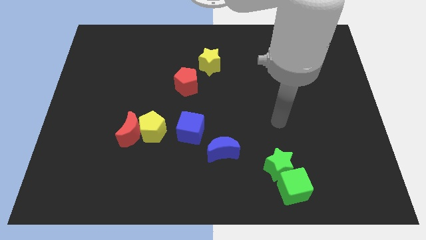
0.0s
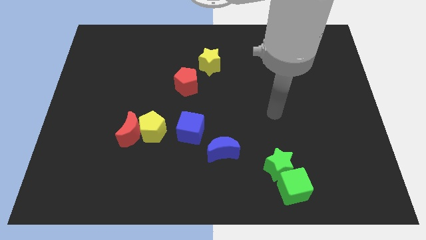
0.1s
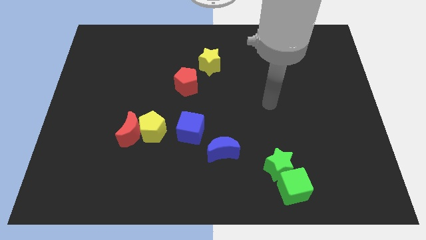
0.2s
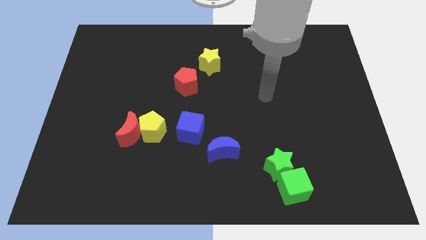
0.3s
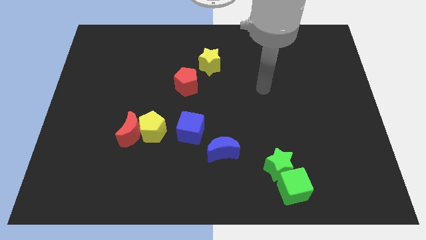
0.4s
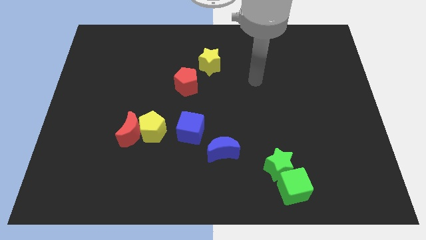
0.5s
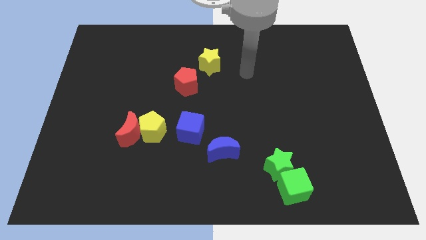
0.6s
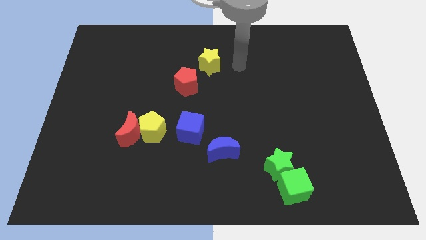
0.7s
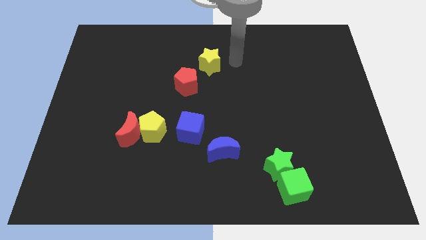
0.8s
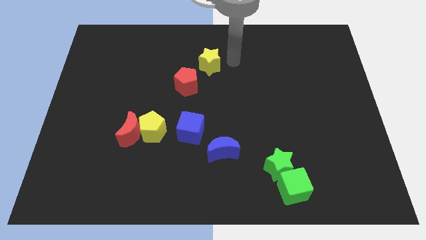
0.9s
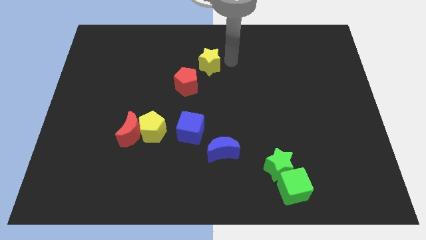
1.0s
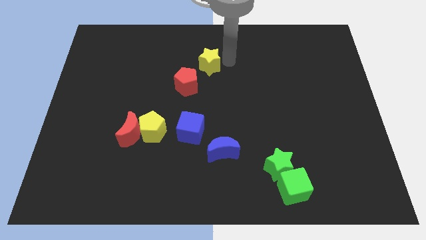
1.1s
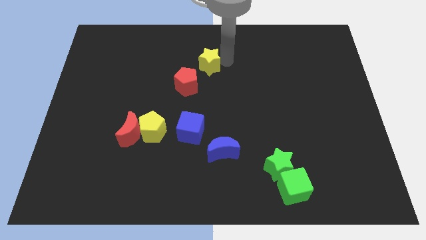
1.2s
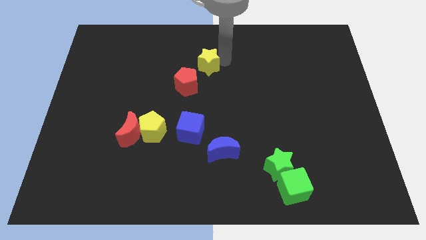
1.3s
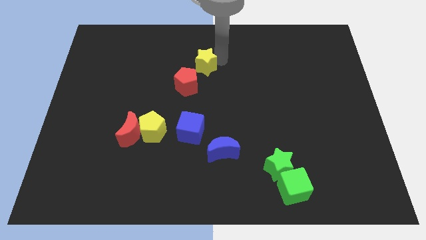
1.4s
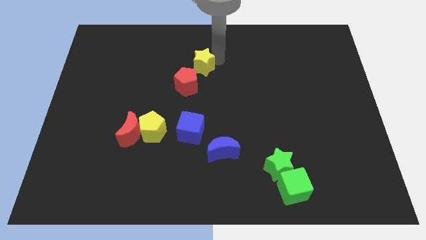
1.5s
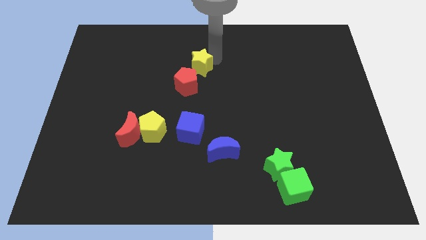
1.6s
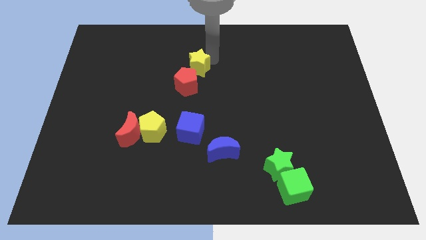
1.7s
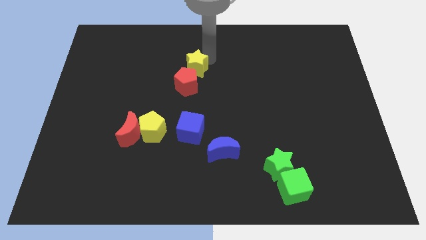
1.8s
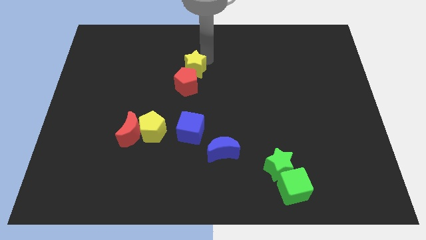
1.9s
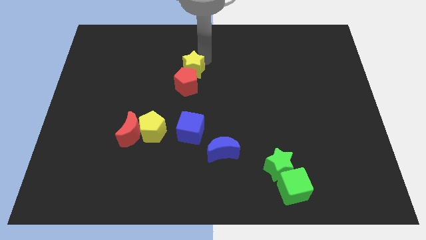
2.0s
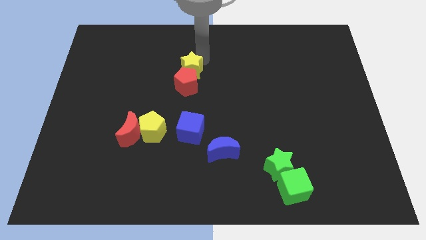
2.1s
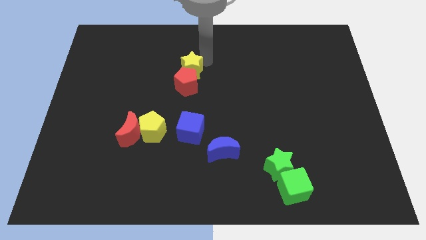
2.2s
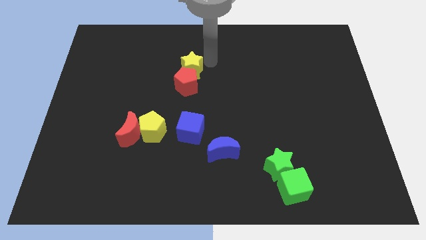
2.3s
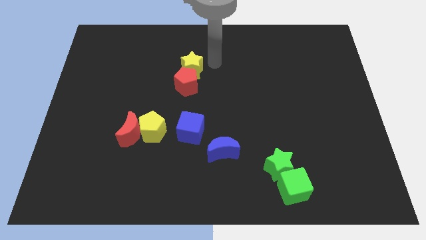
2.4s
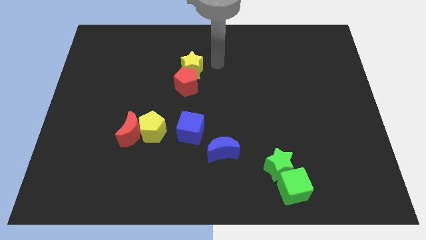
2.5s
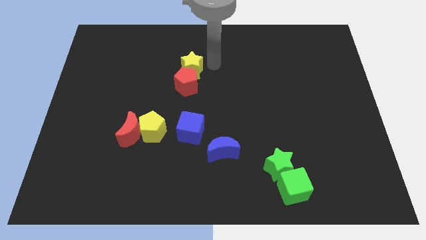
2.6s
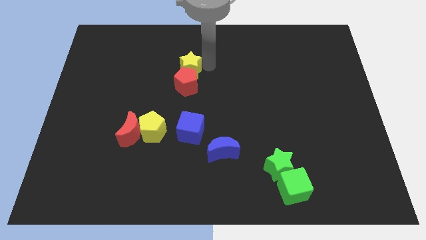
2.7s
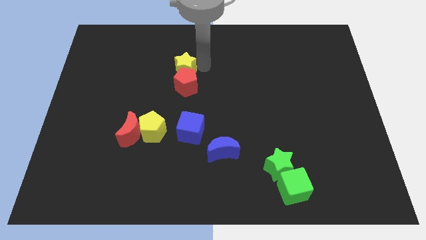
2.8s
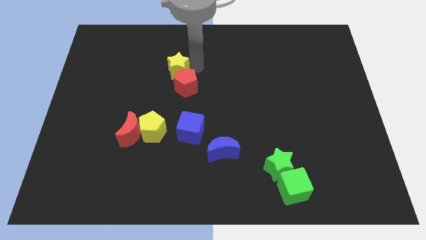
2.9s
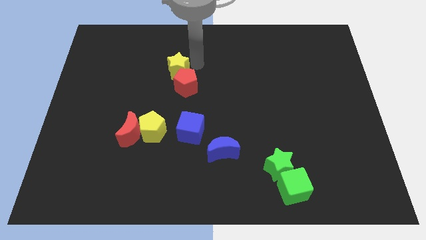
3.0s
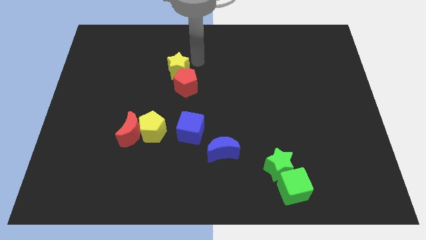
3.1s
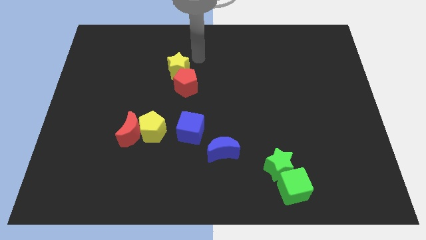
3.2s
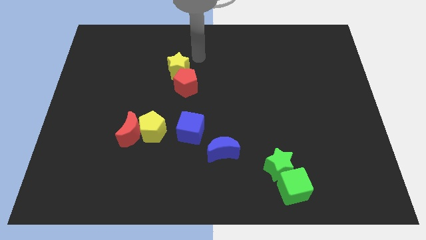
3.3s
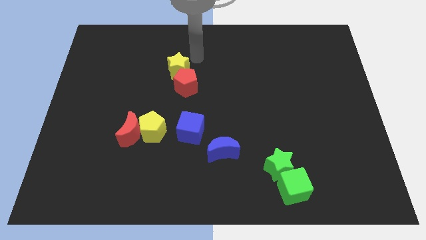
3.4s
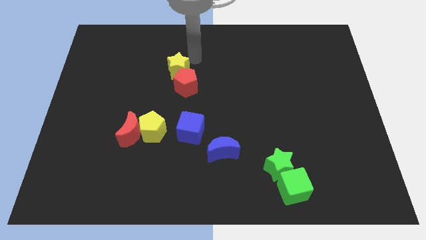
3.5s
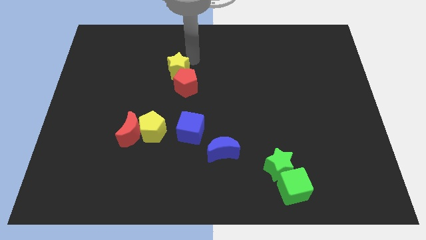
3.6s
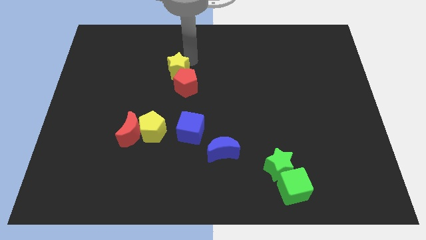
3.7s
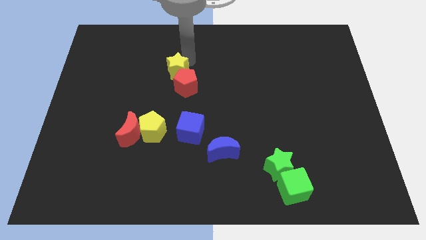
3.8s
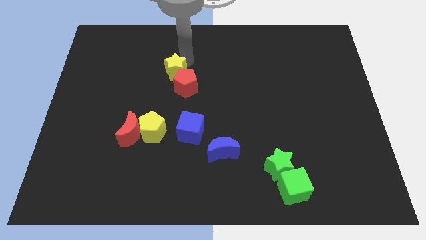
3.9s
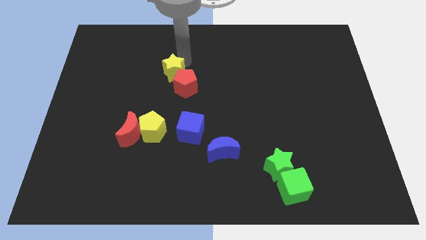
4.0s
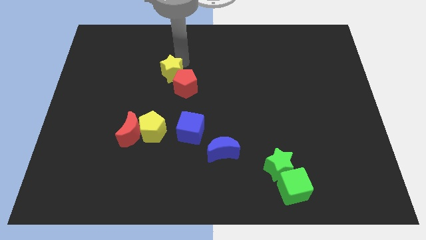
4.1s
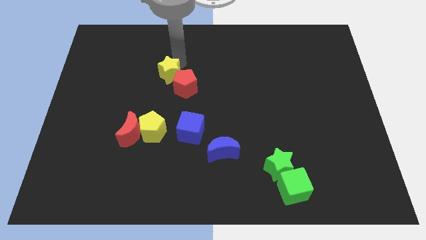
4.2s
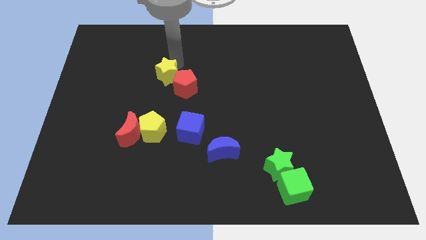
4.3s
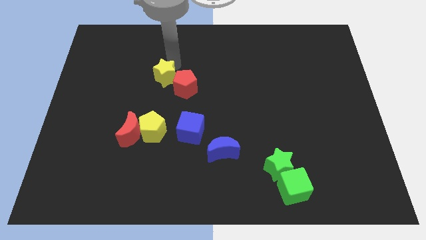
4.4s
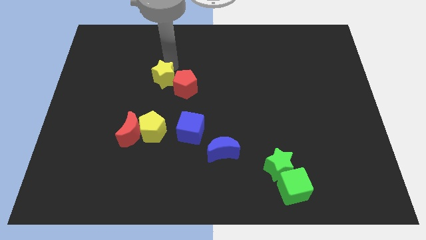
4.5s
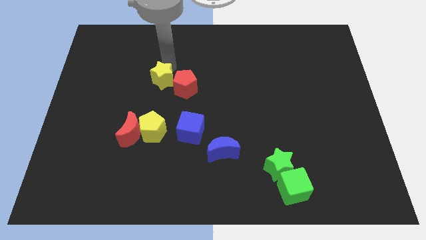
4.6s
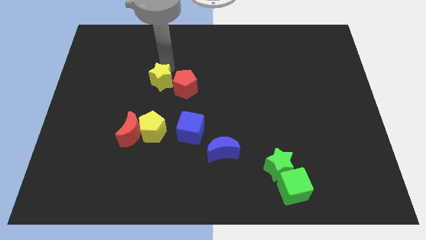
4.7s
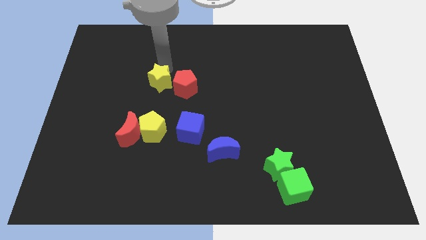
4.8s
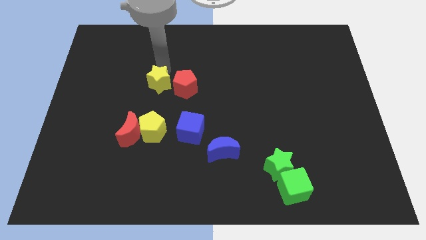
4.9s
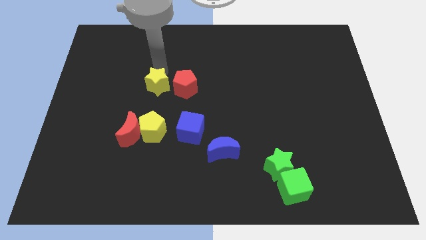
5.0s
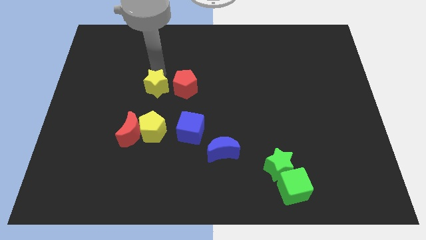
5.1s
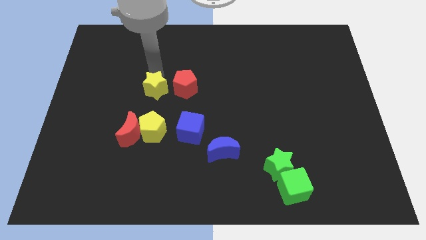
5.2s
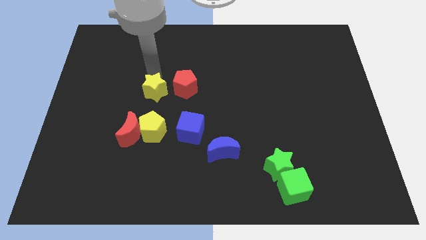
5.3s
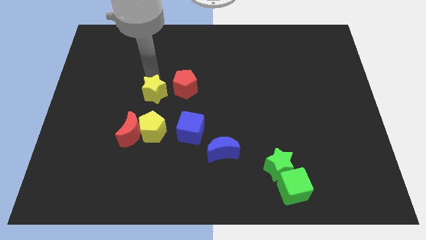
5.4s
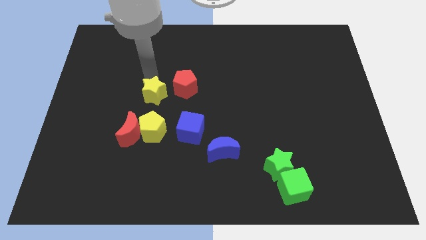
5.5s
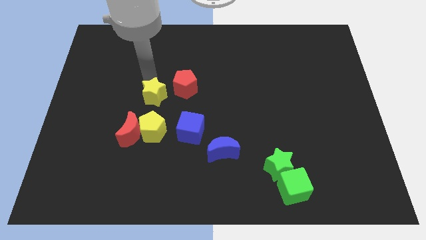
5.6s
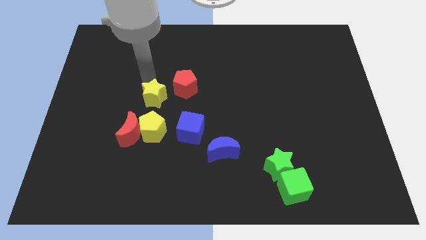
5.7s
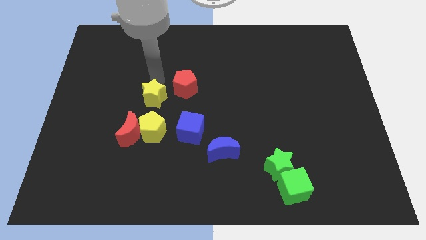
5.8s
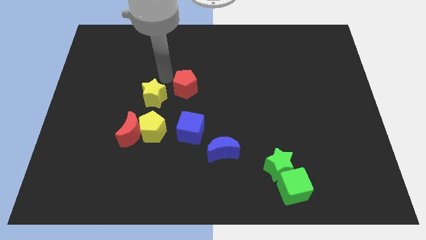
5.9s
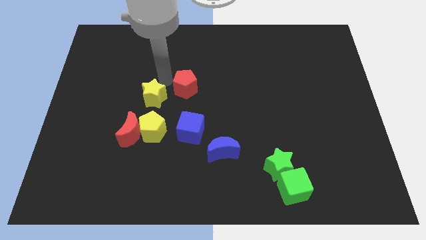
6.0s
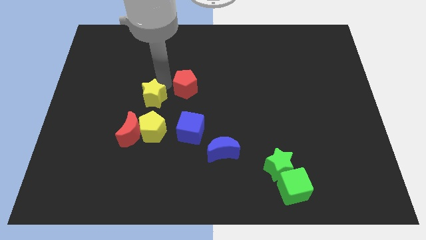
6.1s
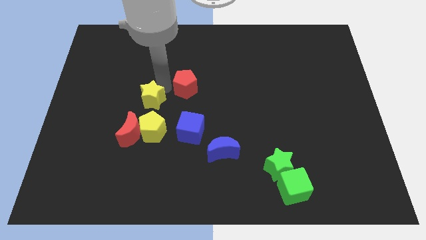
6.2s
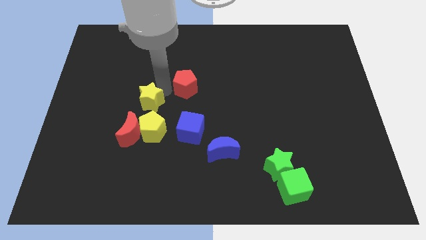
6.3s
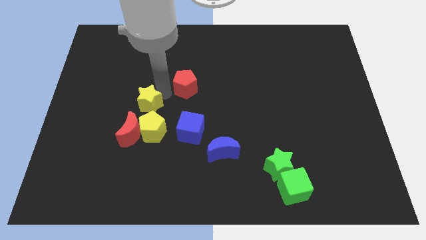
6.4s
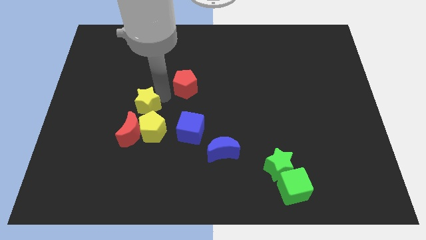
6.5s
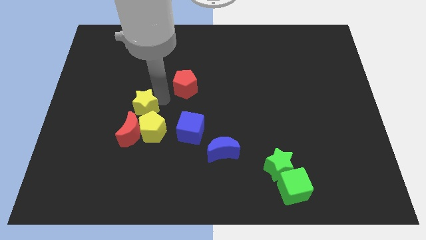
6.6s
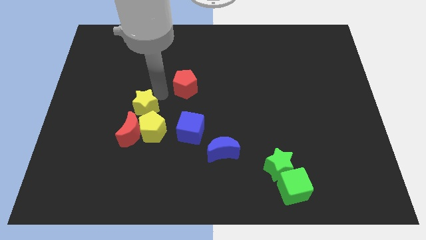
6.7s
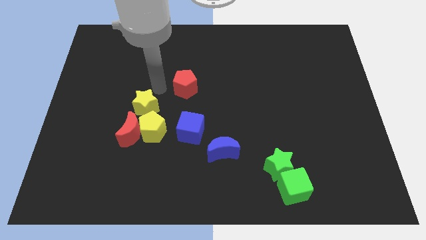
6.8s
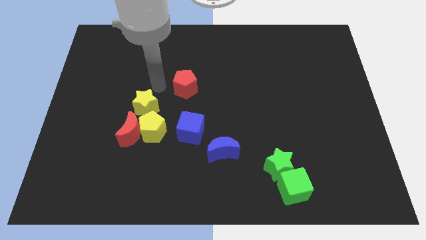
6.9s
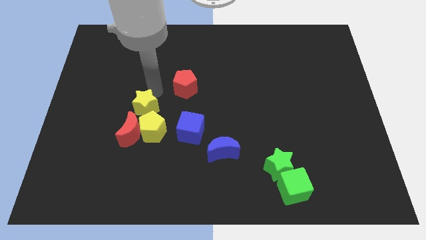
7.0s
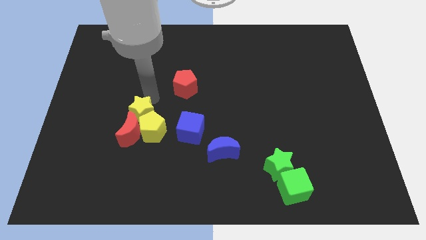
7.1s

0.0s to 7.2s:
push the yellow star next to the red moon
